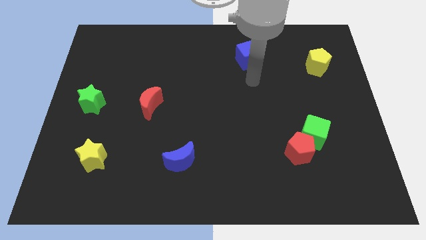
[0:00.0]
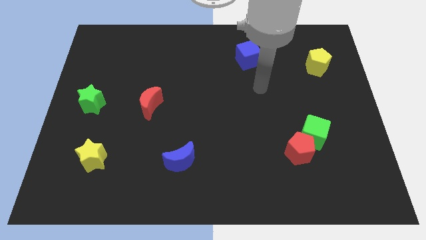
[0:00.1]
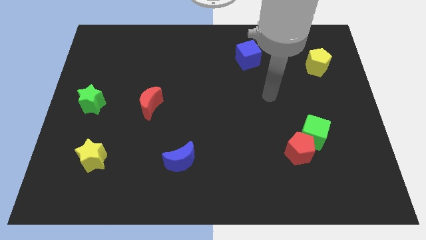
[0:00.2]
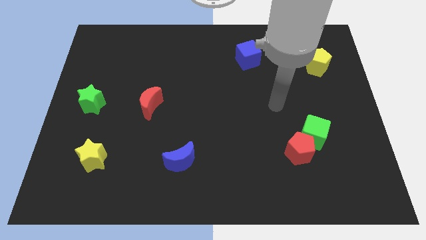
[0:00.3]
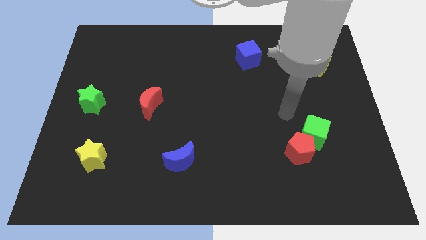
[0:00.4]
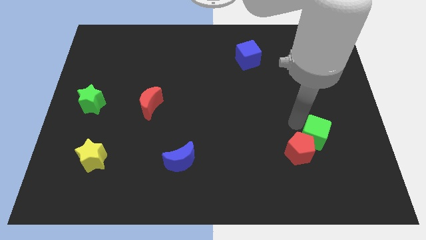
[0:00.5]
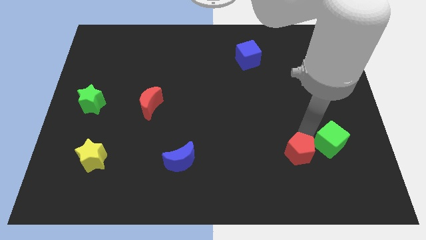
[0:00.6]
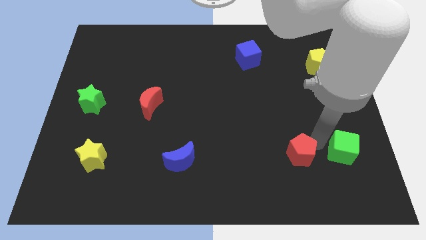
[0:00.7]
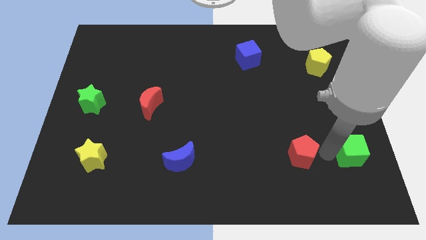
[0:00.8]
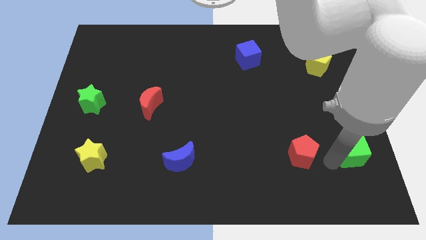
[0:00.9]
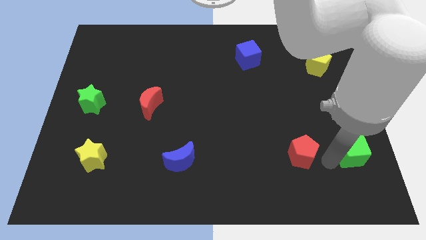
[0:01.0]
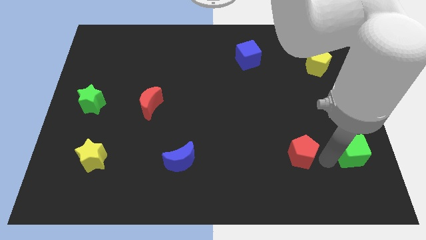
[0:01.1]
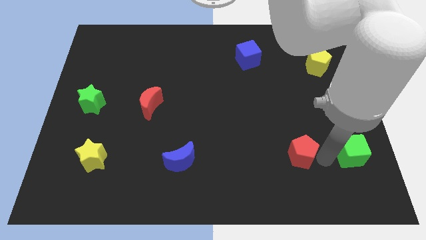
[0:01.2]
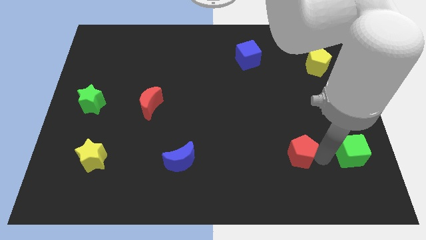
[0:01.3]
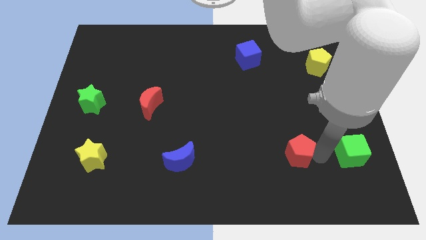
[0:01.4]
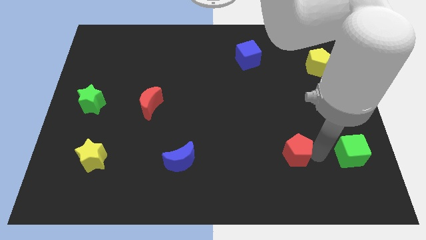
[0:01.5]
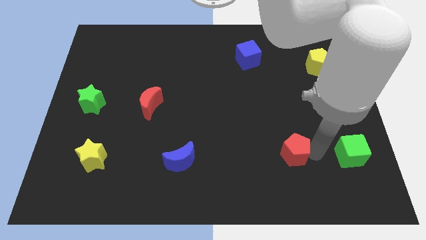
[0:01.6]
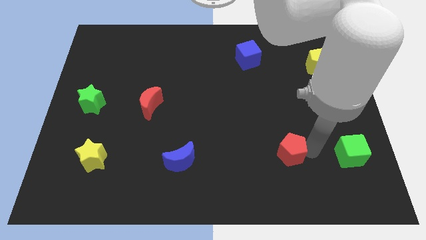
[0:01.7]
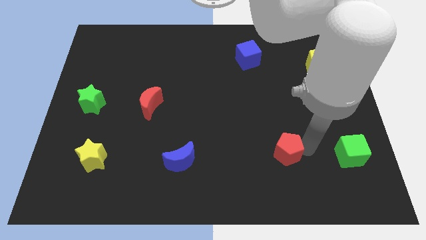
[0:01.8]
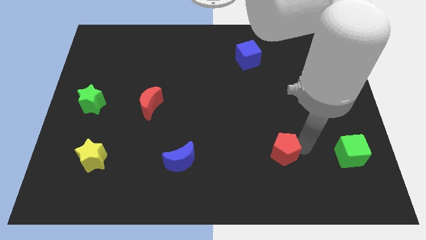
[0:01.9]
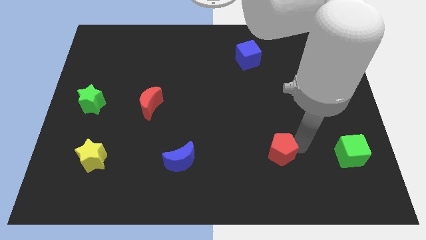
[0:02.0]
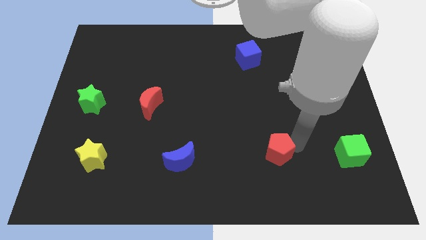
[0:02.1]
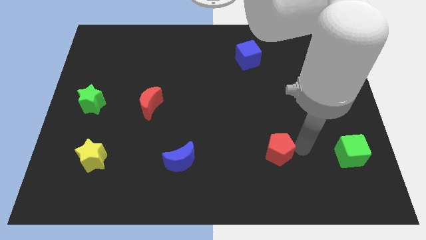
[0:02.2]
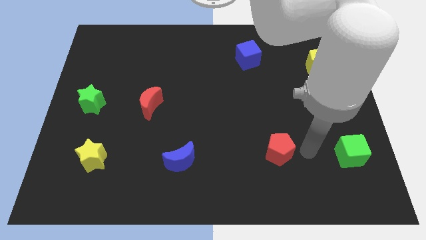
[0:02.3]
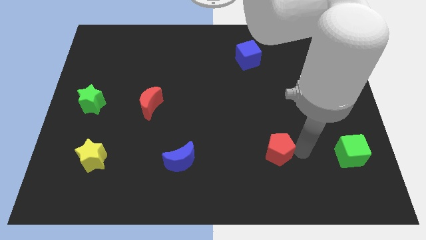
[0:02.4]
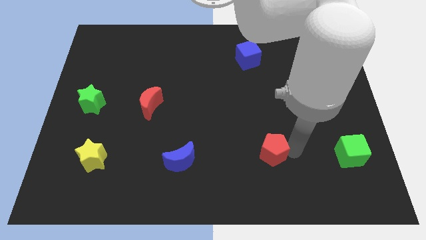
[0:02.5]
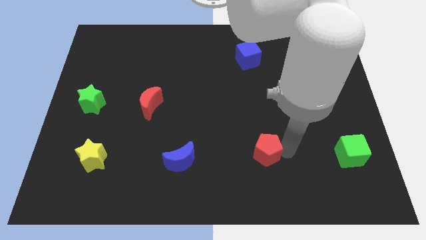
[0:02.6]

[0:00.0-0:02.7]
push the red pentagon to the left slightly

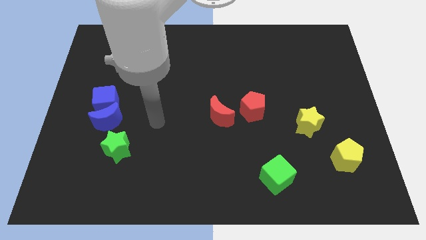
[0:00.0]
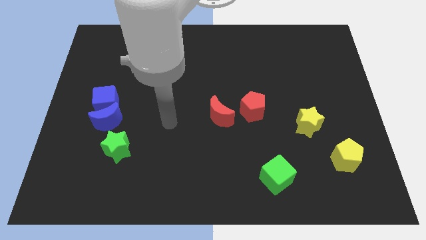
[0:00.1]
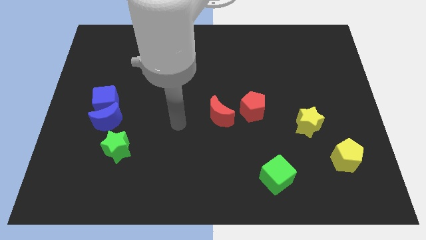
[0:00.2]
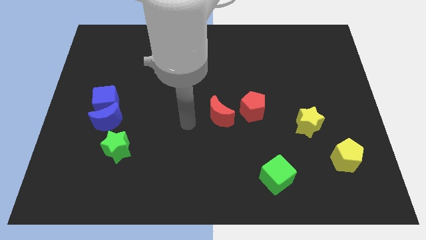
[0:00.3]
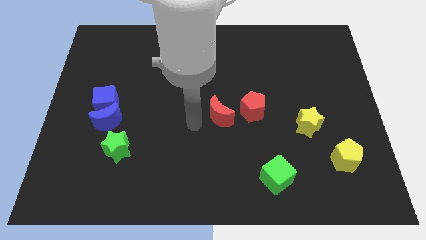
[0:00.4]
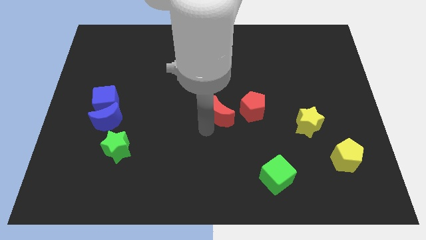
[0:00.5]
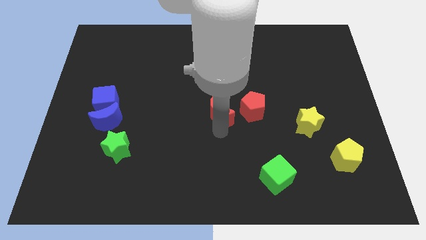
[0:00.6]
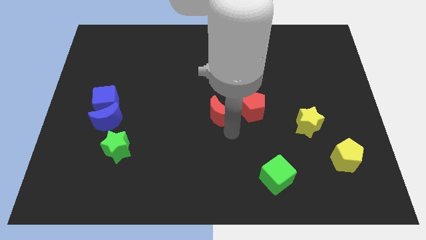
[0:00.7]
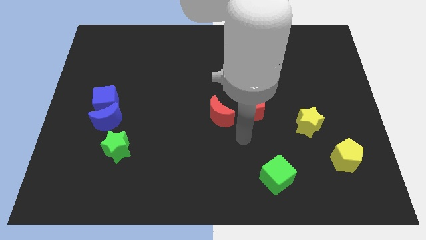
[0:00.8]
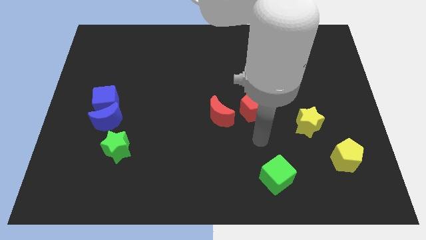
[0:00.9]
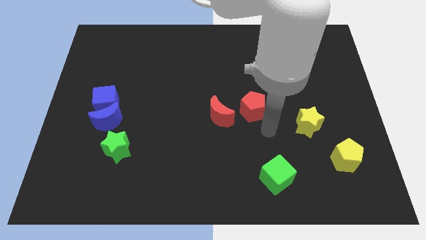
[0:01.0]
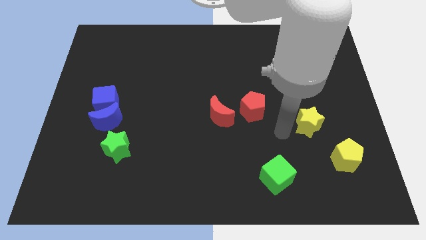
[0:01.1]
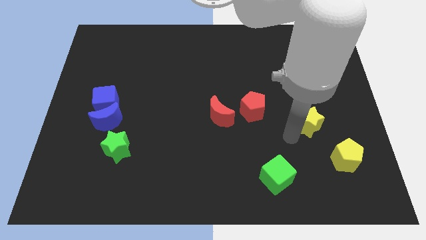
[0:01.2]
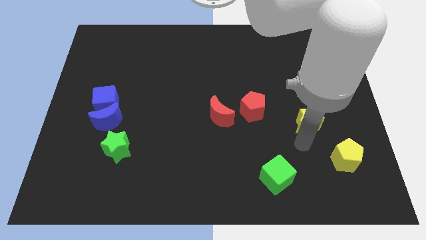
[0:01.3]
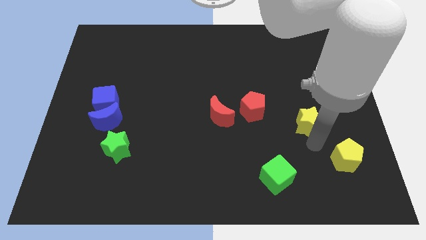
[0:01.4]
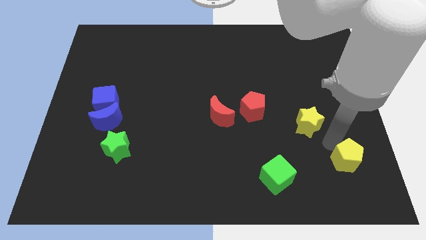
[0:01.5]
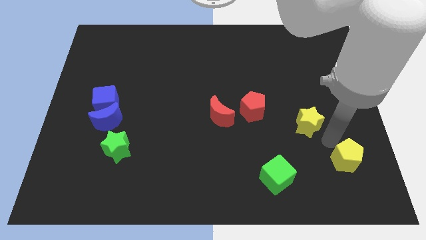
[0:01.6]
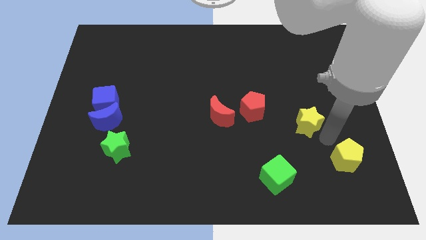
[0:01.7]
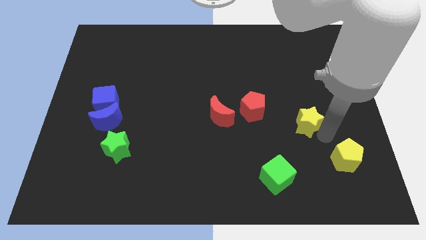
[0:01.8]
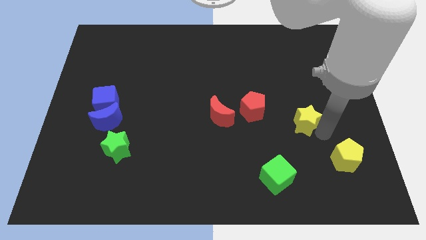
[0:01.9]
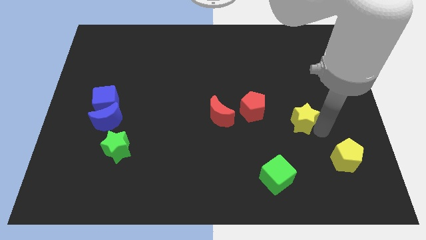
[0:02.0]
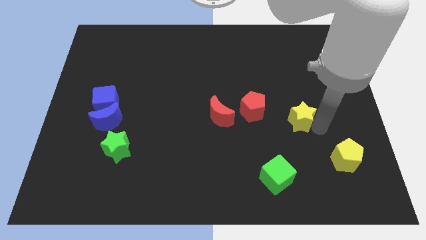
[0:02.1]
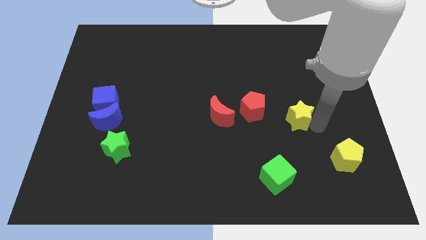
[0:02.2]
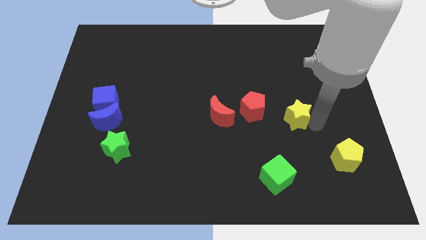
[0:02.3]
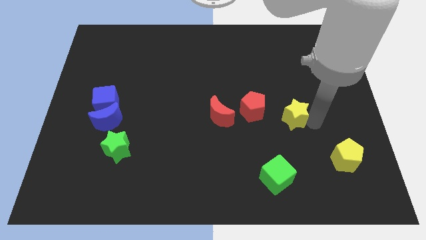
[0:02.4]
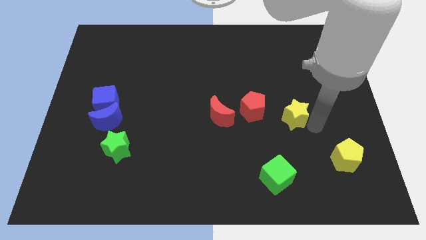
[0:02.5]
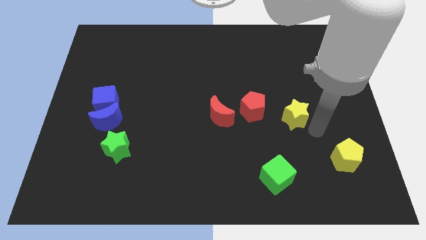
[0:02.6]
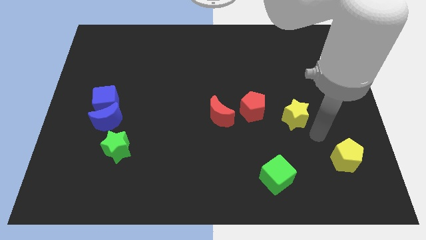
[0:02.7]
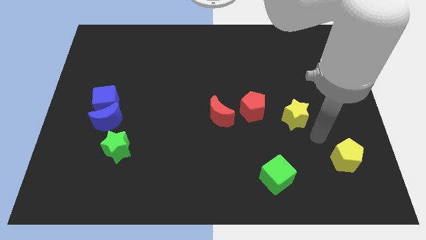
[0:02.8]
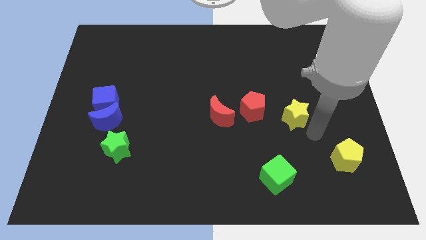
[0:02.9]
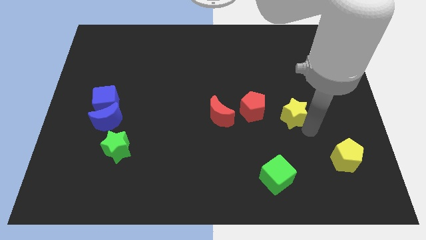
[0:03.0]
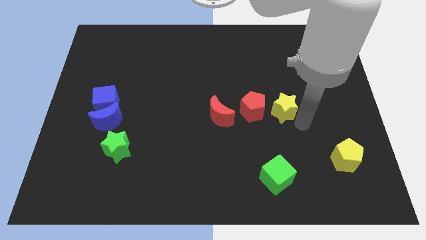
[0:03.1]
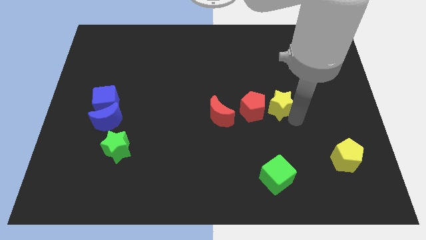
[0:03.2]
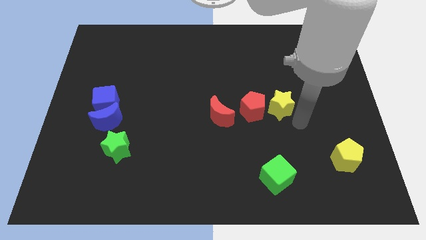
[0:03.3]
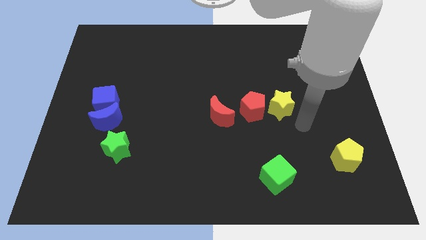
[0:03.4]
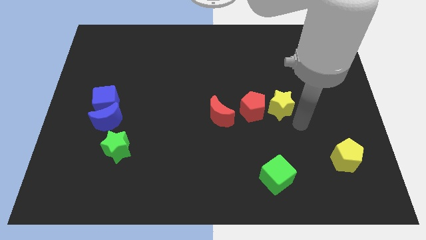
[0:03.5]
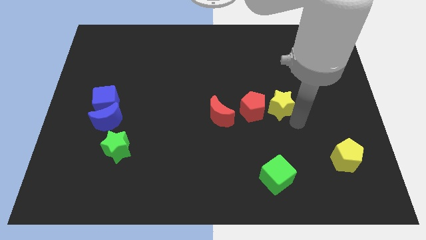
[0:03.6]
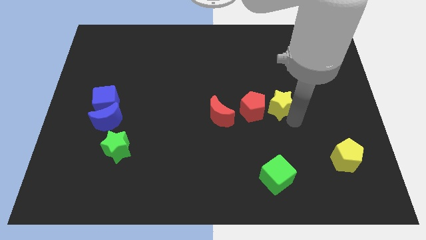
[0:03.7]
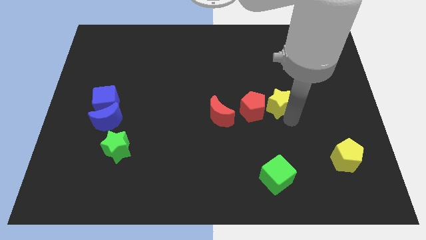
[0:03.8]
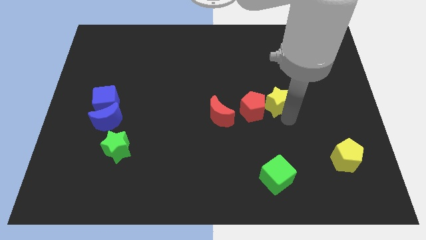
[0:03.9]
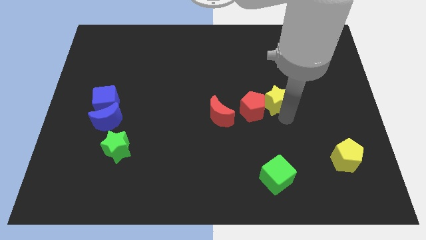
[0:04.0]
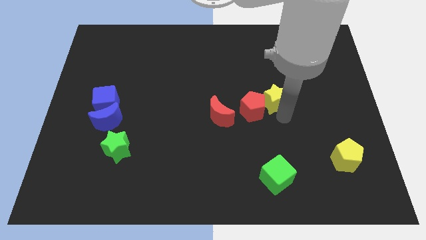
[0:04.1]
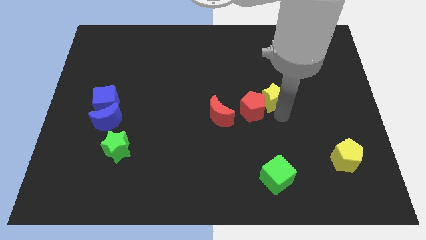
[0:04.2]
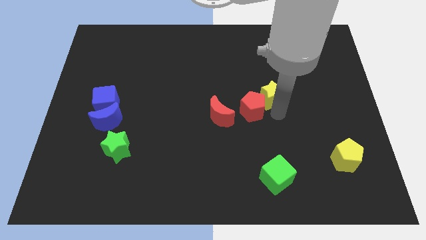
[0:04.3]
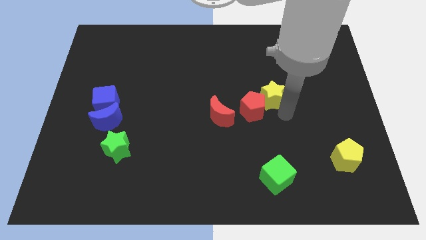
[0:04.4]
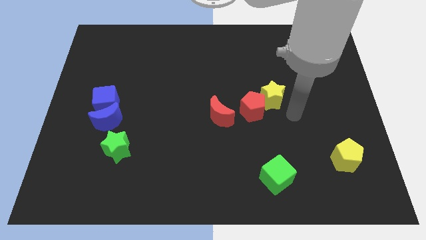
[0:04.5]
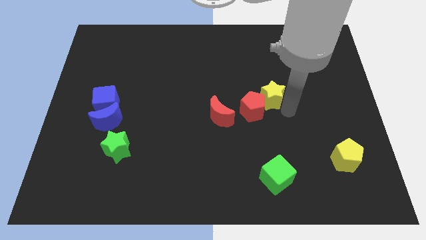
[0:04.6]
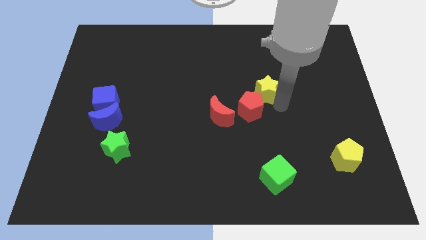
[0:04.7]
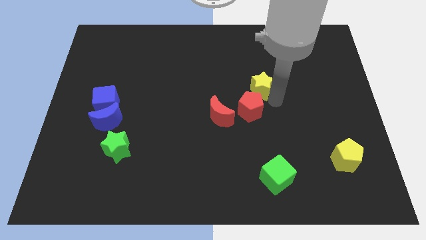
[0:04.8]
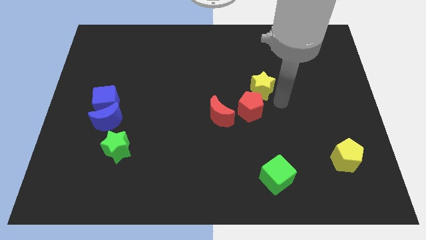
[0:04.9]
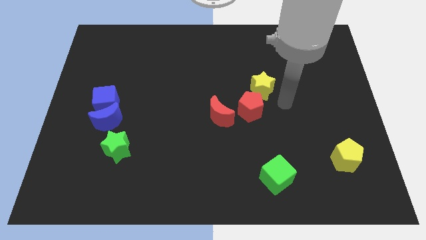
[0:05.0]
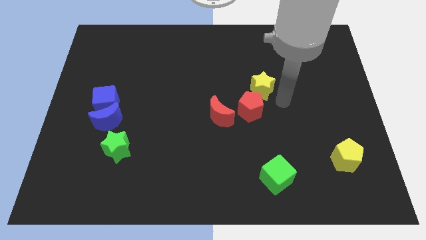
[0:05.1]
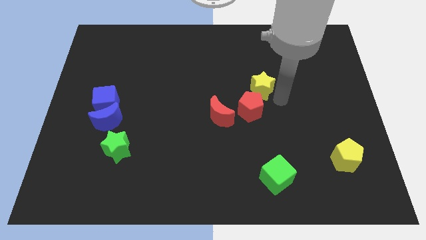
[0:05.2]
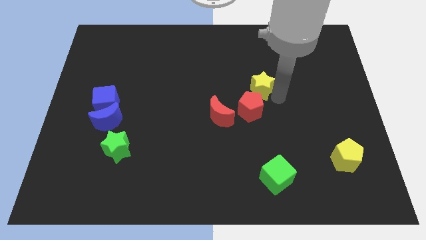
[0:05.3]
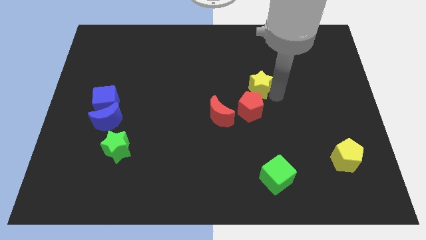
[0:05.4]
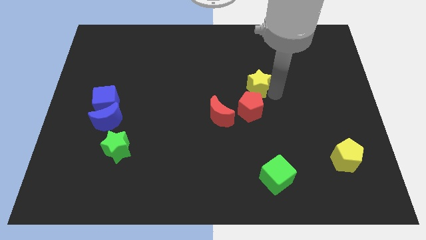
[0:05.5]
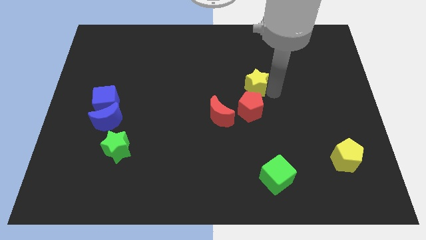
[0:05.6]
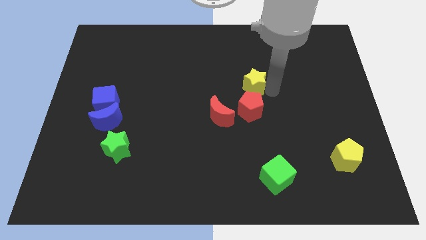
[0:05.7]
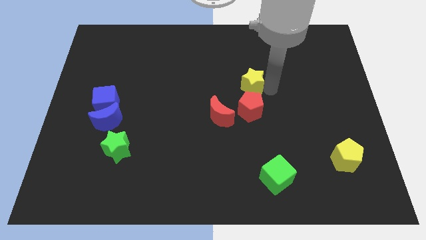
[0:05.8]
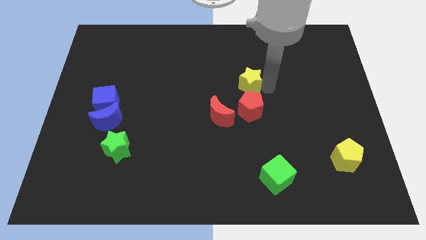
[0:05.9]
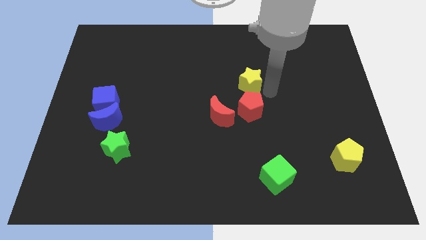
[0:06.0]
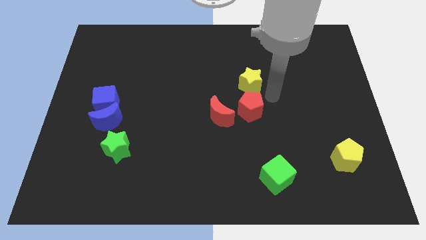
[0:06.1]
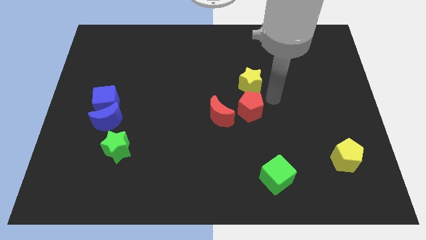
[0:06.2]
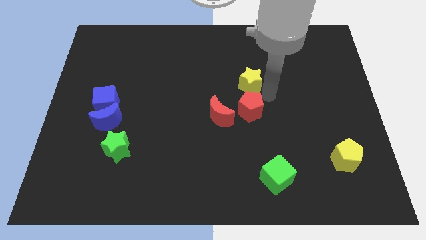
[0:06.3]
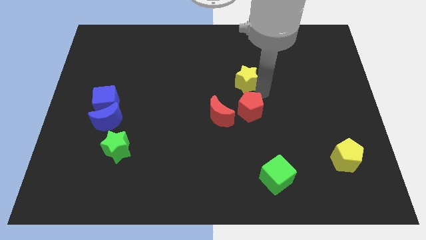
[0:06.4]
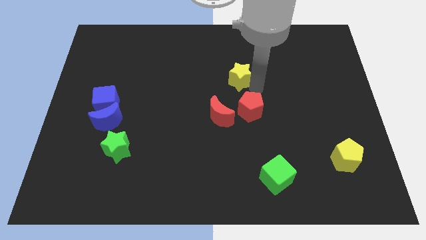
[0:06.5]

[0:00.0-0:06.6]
push the yellow star up and left
